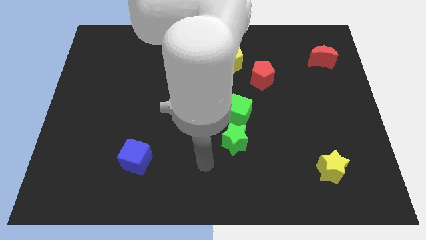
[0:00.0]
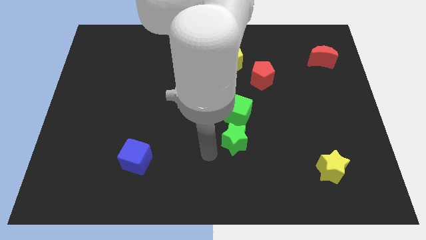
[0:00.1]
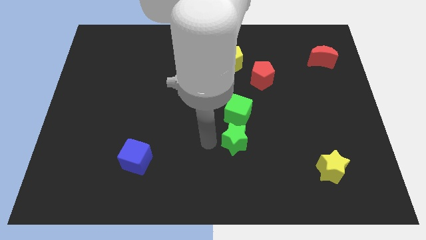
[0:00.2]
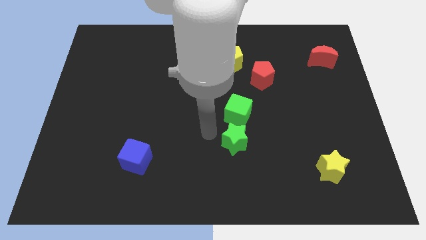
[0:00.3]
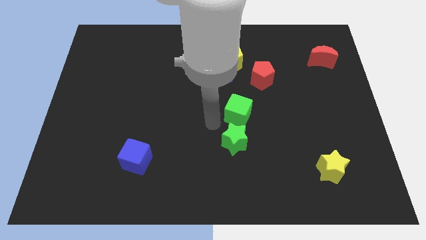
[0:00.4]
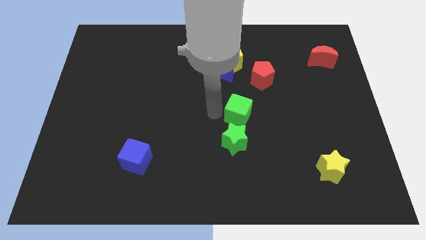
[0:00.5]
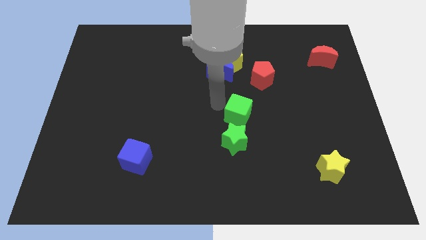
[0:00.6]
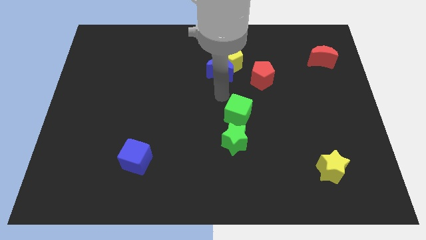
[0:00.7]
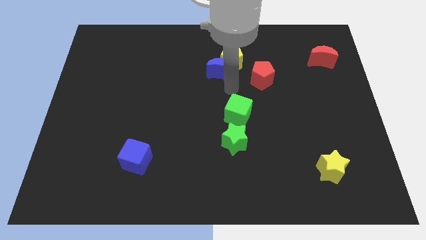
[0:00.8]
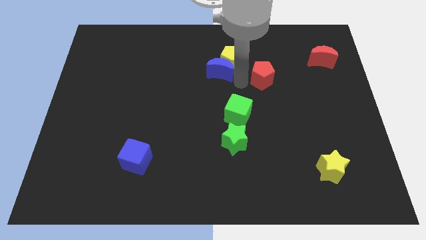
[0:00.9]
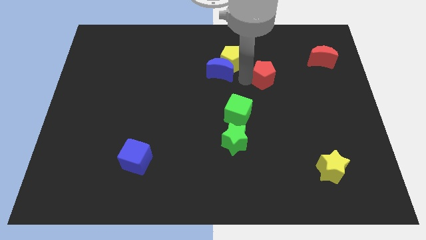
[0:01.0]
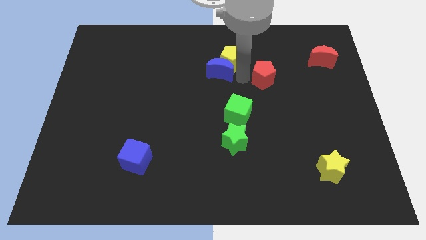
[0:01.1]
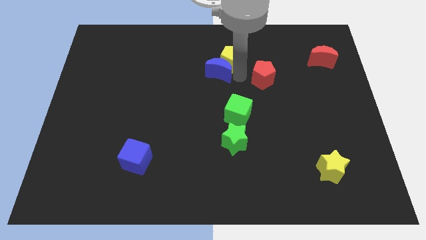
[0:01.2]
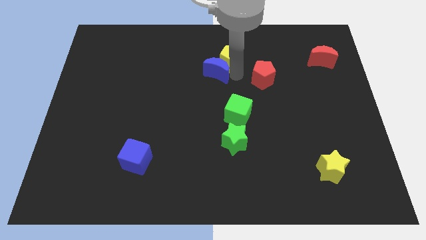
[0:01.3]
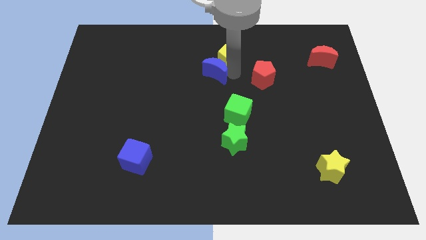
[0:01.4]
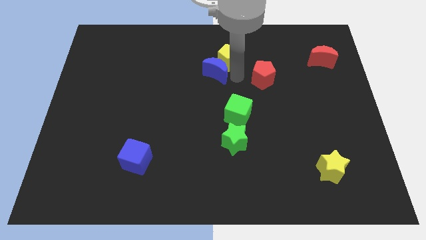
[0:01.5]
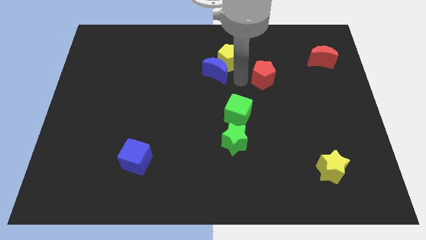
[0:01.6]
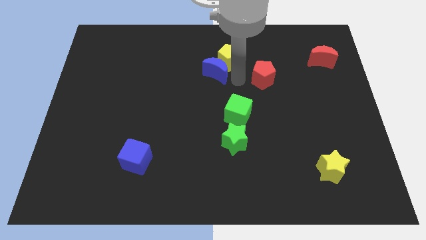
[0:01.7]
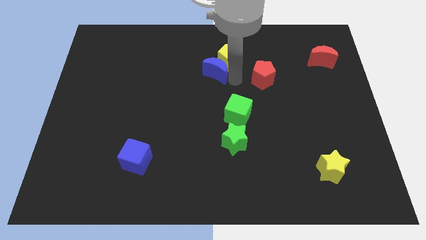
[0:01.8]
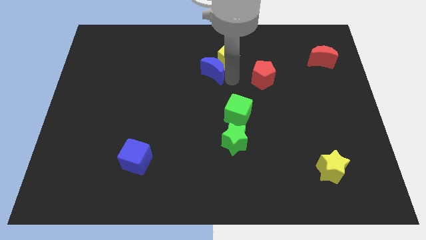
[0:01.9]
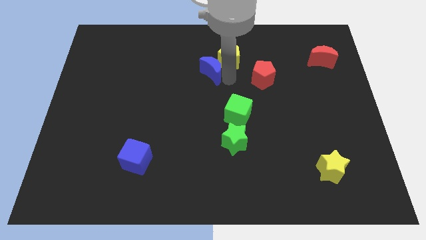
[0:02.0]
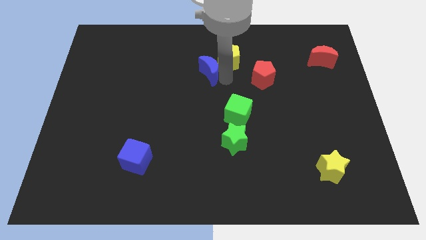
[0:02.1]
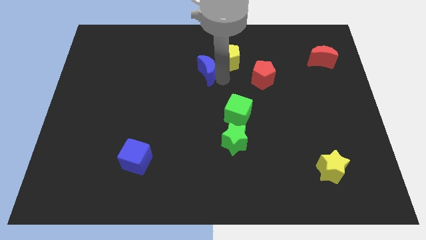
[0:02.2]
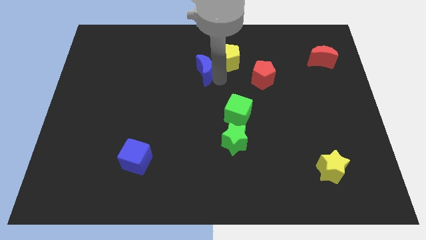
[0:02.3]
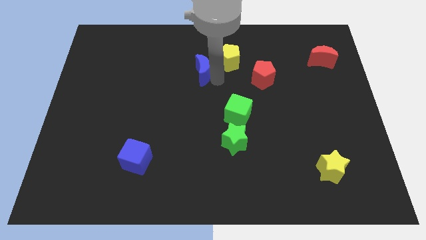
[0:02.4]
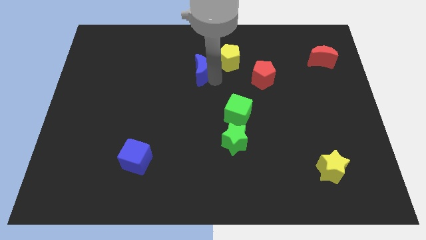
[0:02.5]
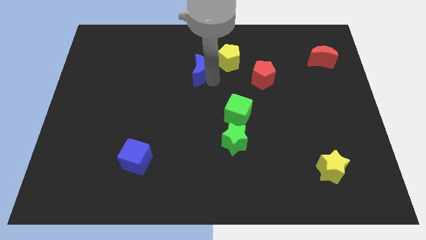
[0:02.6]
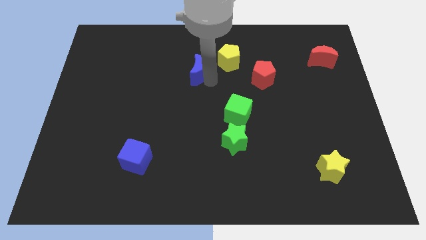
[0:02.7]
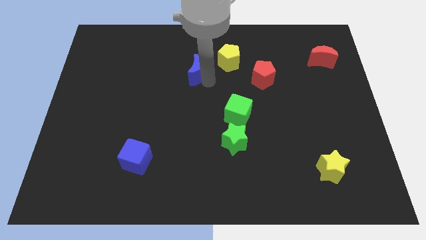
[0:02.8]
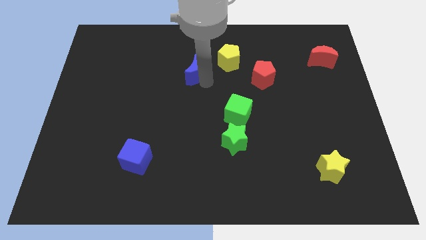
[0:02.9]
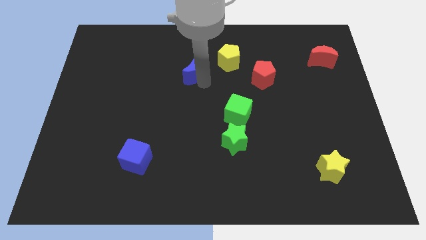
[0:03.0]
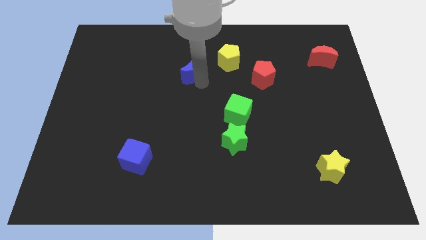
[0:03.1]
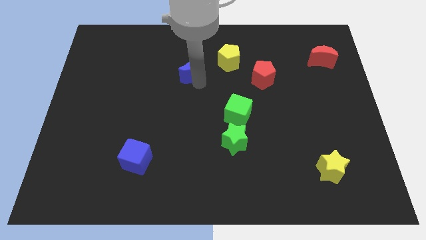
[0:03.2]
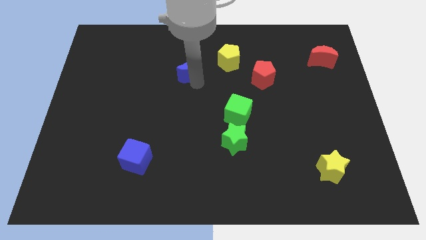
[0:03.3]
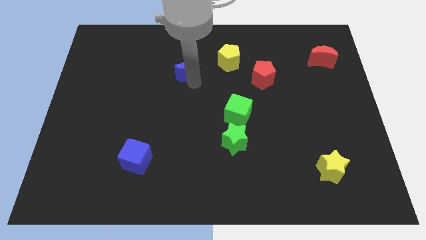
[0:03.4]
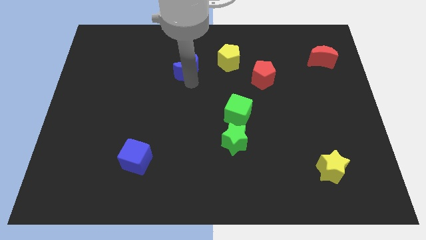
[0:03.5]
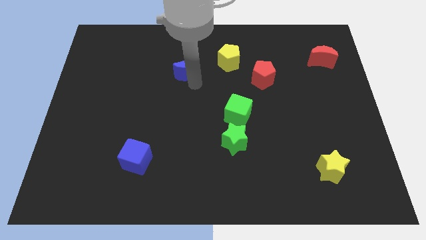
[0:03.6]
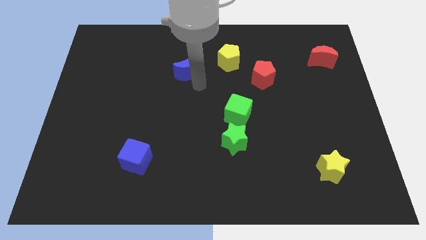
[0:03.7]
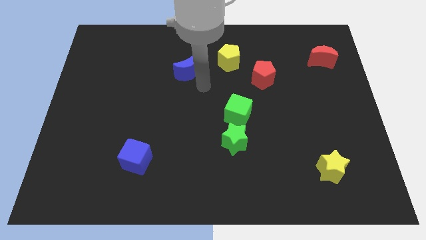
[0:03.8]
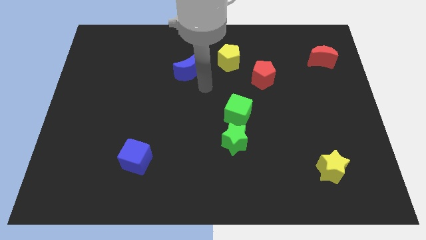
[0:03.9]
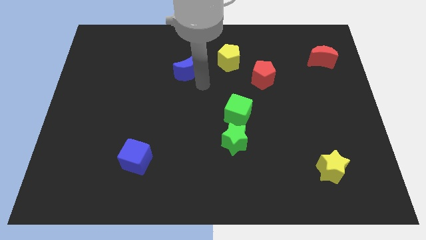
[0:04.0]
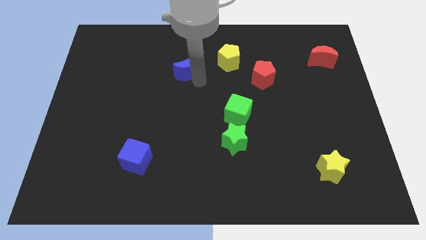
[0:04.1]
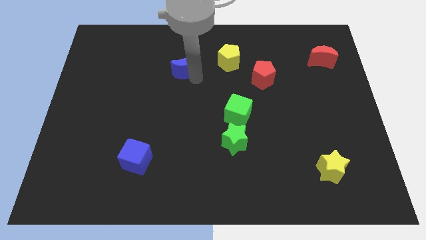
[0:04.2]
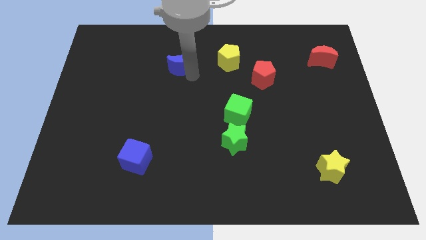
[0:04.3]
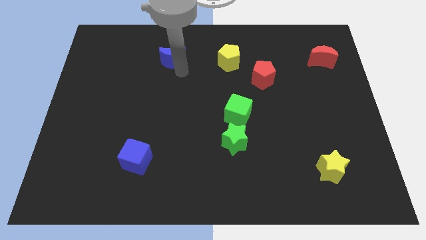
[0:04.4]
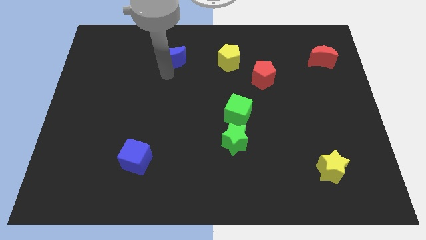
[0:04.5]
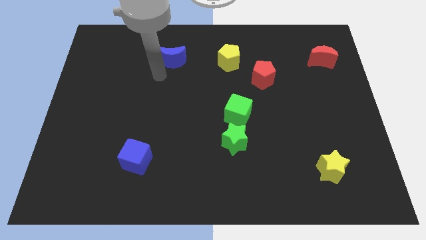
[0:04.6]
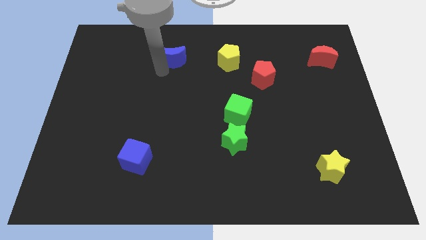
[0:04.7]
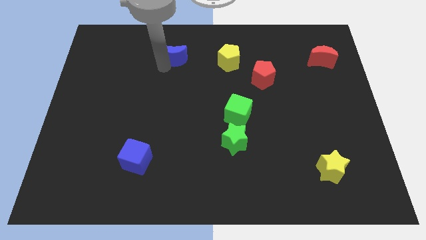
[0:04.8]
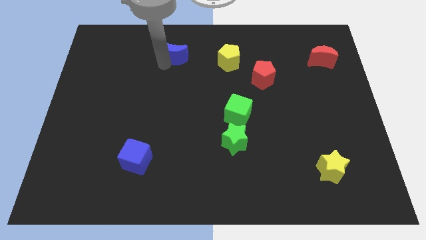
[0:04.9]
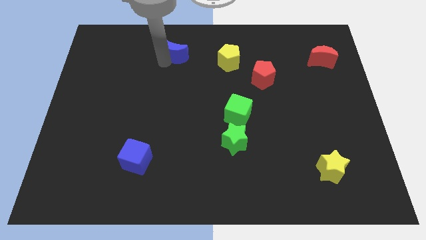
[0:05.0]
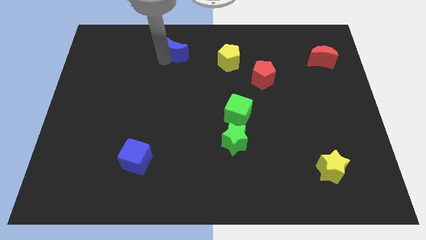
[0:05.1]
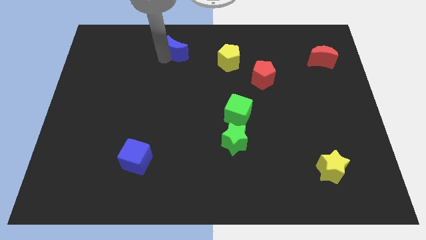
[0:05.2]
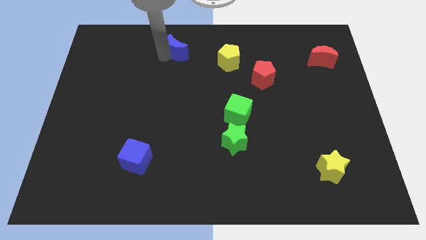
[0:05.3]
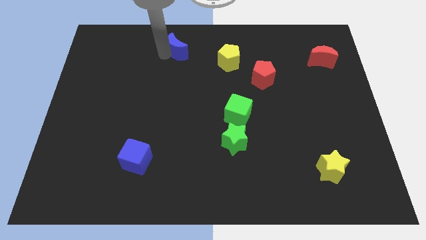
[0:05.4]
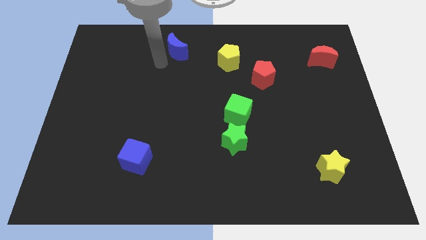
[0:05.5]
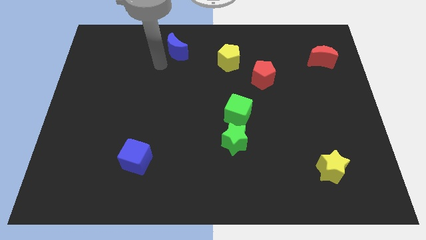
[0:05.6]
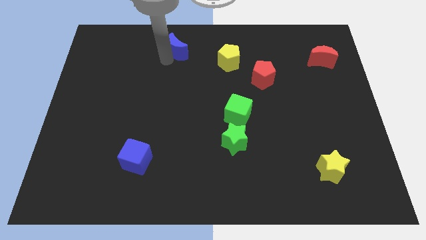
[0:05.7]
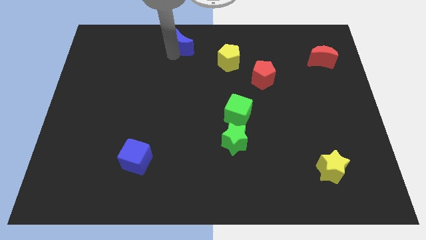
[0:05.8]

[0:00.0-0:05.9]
put the blue moon to the top

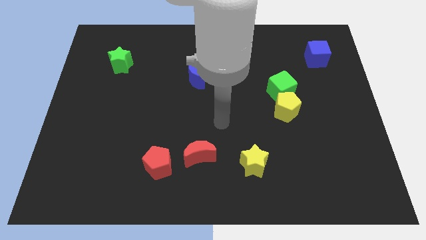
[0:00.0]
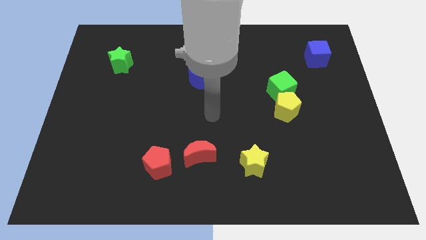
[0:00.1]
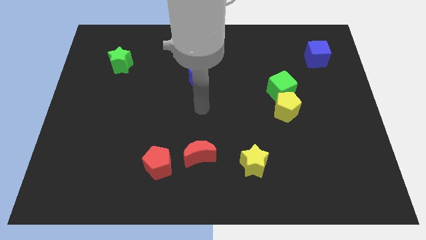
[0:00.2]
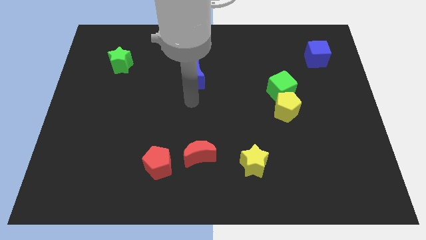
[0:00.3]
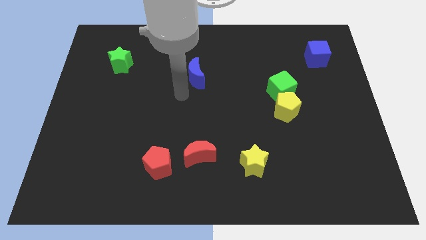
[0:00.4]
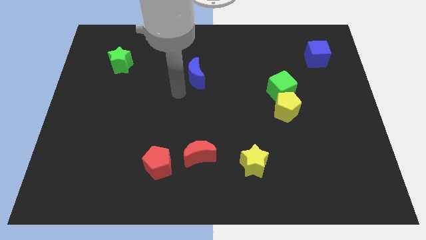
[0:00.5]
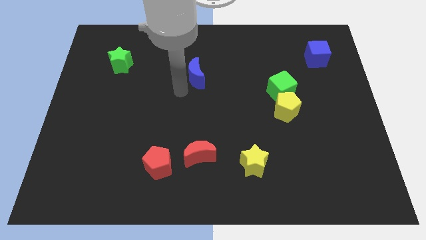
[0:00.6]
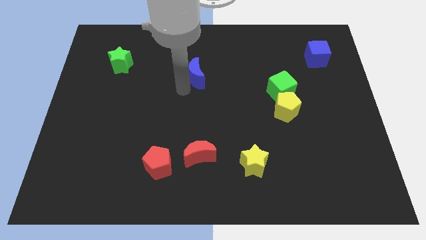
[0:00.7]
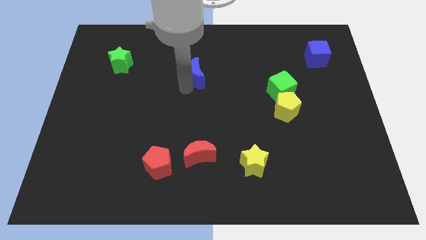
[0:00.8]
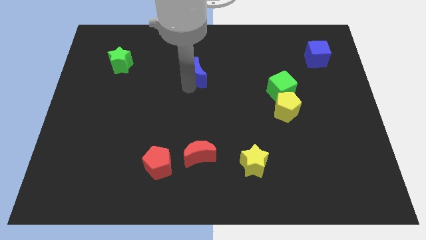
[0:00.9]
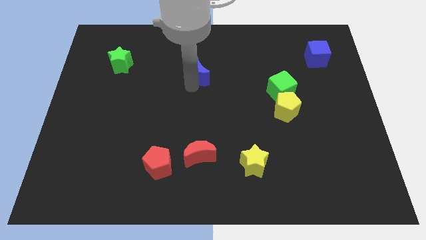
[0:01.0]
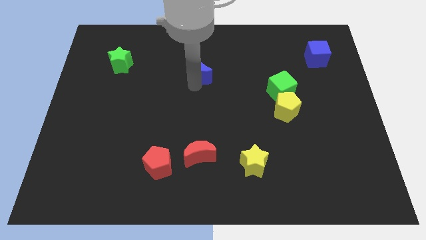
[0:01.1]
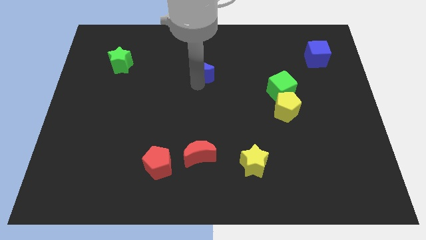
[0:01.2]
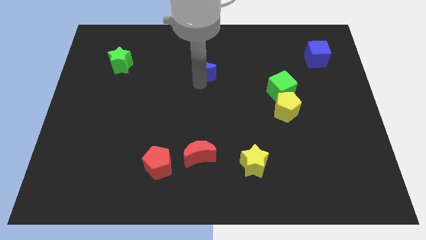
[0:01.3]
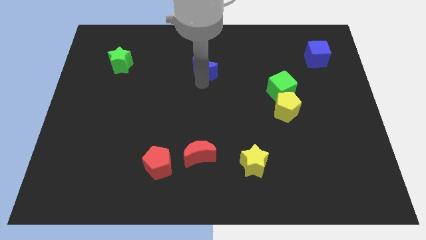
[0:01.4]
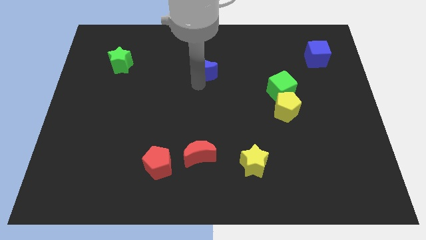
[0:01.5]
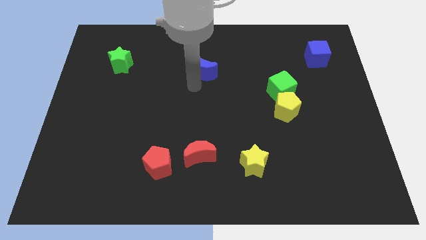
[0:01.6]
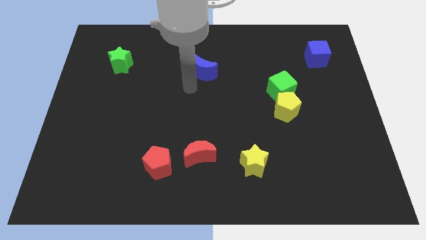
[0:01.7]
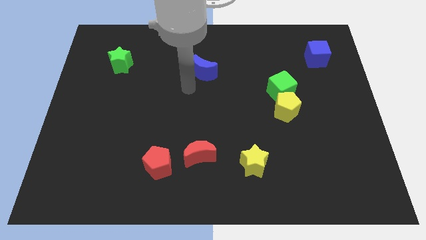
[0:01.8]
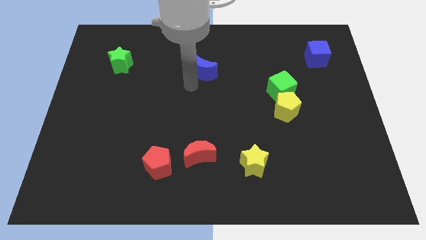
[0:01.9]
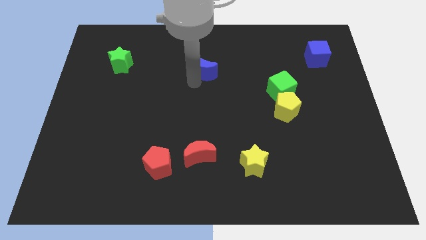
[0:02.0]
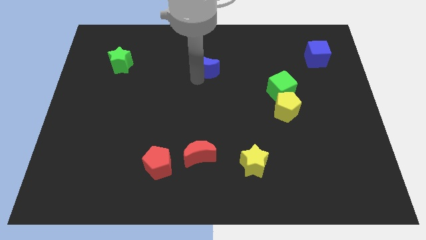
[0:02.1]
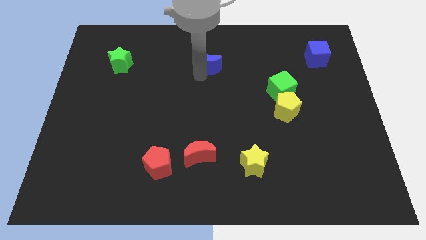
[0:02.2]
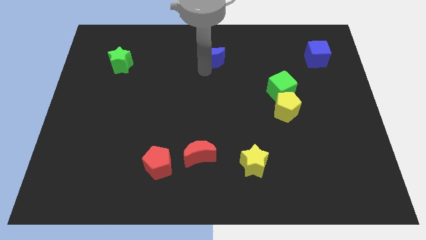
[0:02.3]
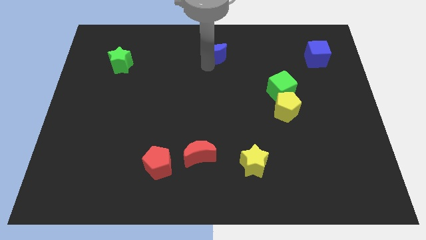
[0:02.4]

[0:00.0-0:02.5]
slide the blue moon to the top

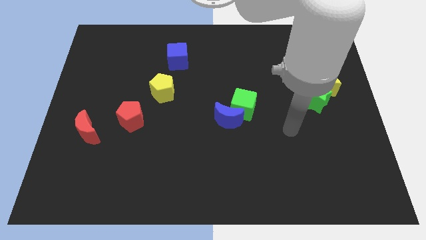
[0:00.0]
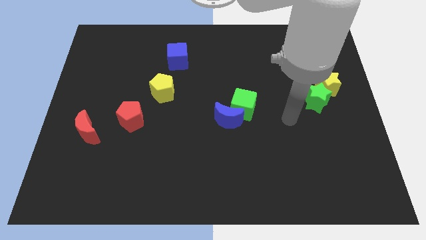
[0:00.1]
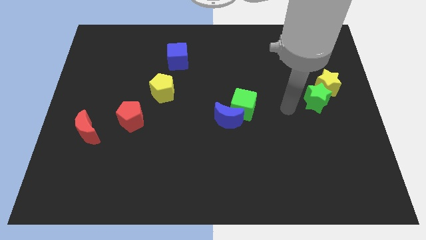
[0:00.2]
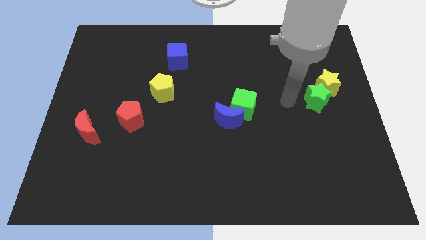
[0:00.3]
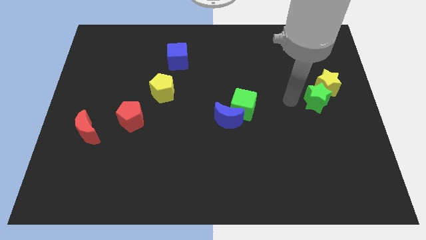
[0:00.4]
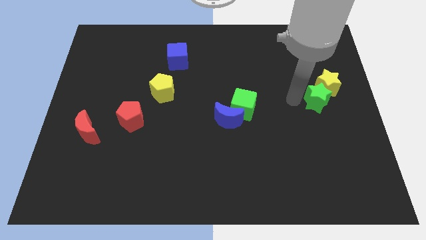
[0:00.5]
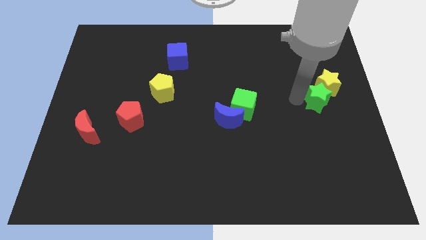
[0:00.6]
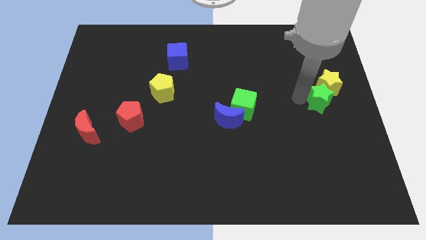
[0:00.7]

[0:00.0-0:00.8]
move the green star to the center right
